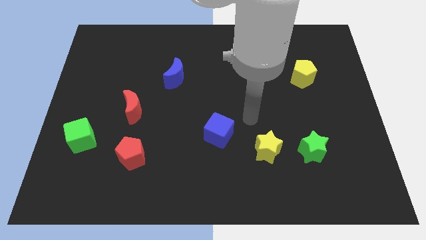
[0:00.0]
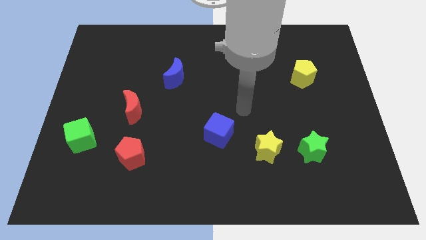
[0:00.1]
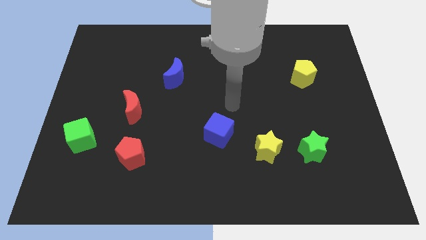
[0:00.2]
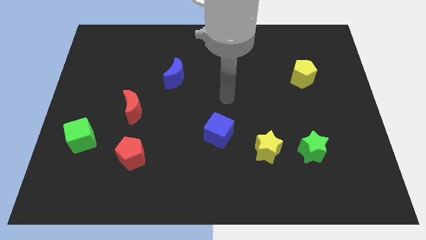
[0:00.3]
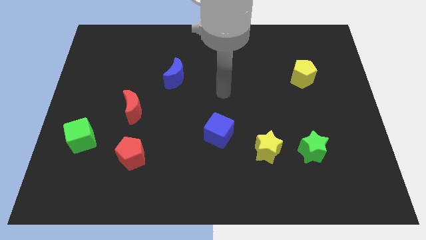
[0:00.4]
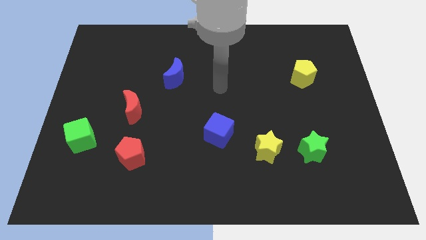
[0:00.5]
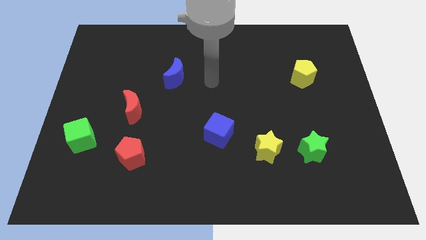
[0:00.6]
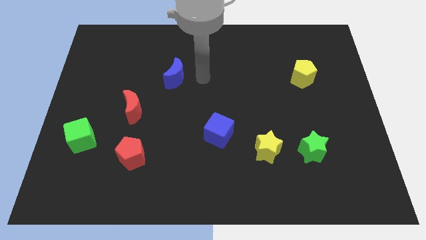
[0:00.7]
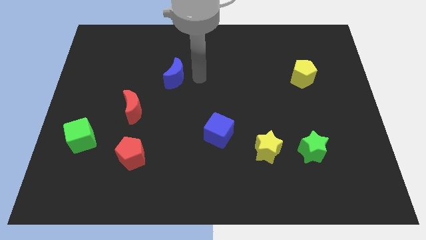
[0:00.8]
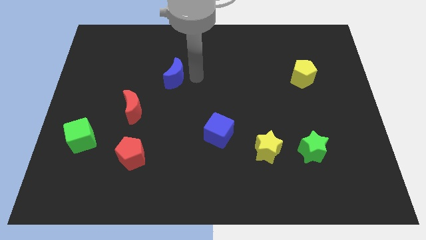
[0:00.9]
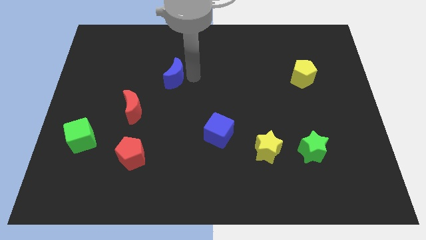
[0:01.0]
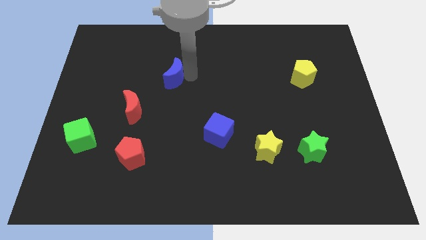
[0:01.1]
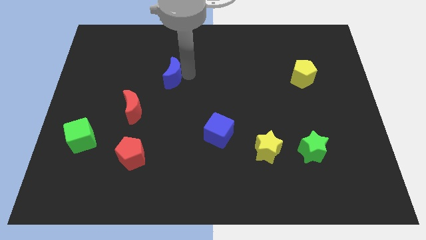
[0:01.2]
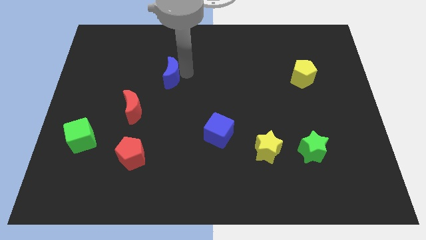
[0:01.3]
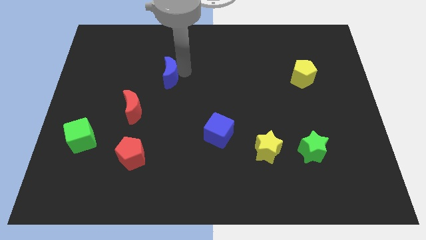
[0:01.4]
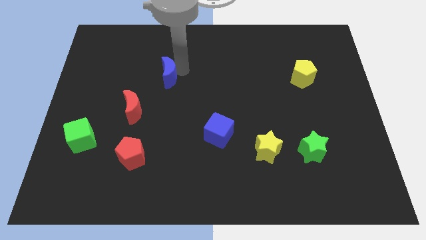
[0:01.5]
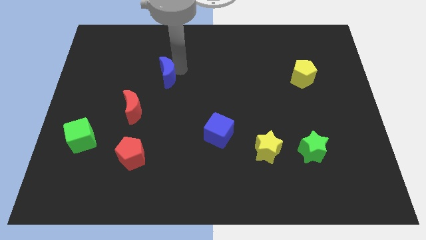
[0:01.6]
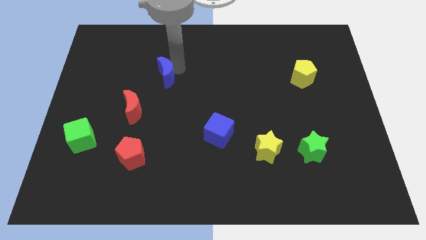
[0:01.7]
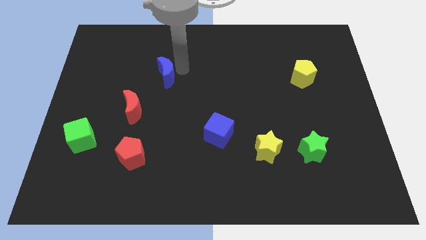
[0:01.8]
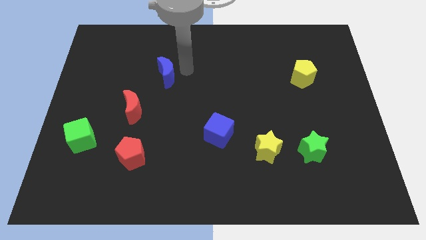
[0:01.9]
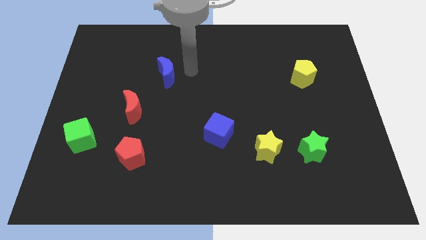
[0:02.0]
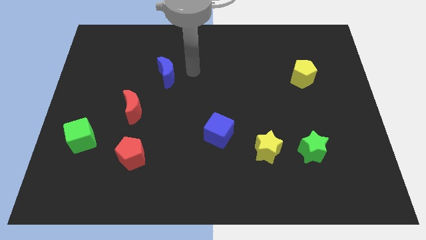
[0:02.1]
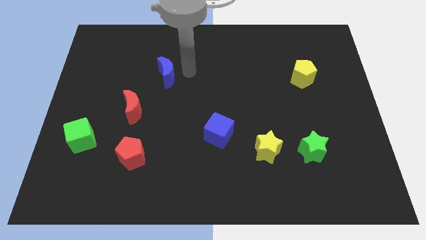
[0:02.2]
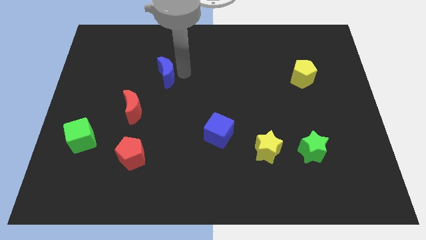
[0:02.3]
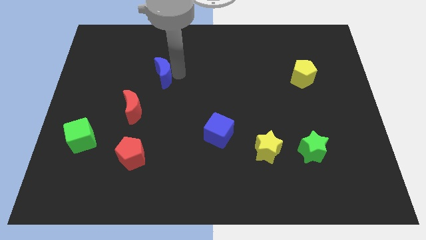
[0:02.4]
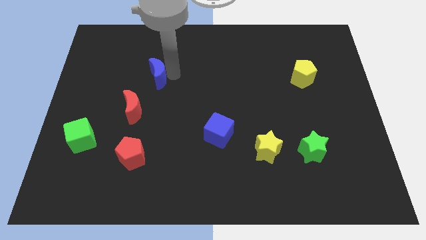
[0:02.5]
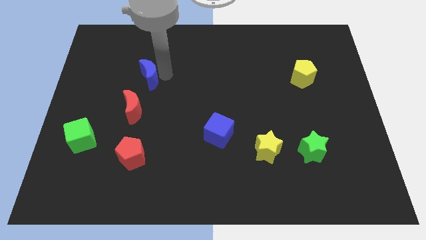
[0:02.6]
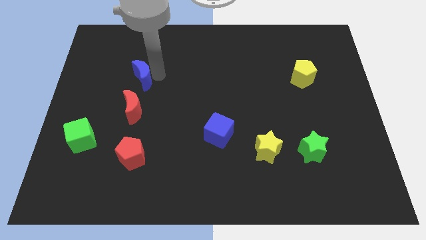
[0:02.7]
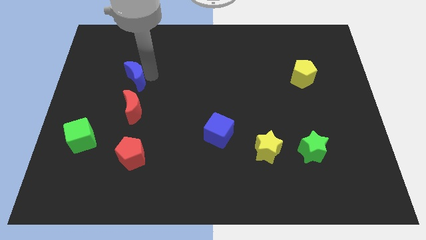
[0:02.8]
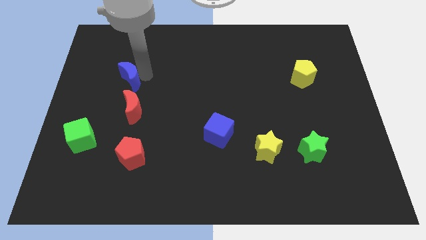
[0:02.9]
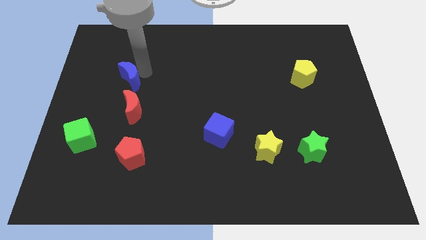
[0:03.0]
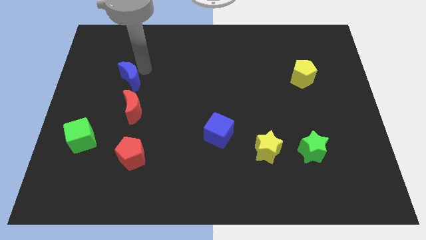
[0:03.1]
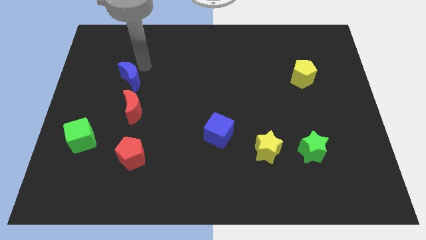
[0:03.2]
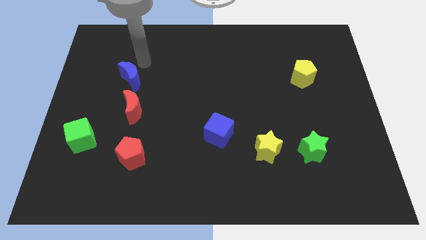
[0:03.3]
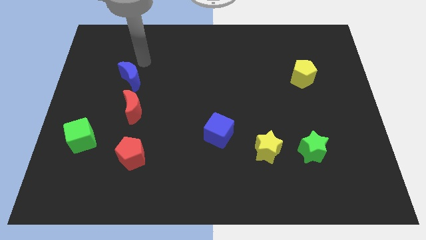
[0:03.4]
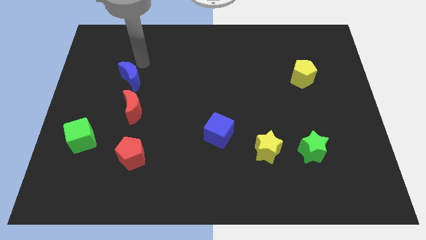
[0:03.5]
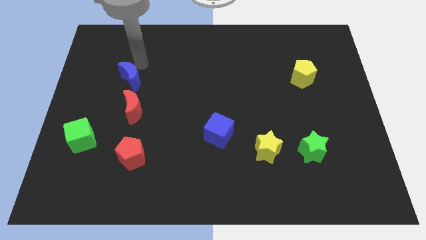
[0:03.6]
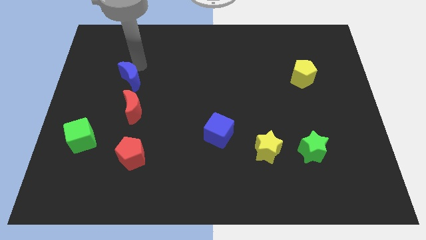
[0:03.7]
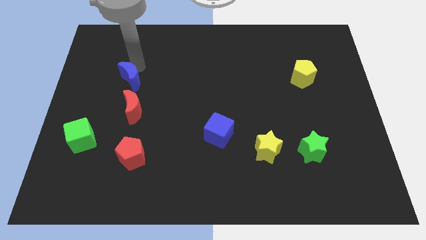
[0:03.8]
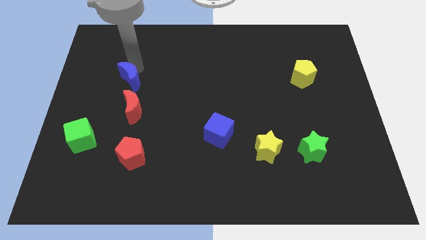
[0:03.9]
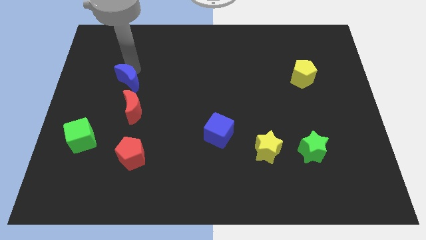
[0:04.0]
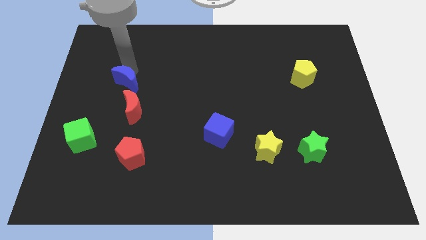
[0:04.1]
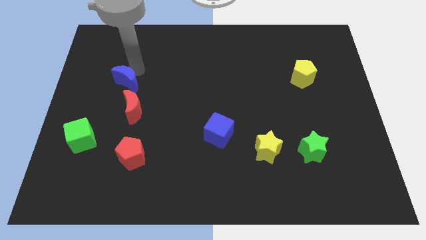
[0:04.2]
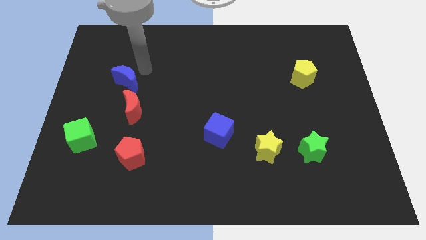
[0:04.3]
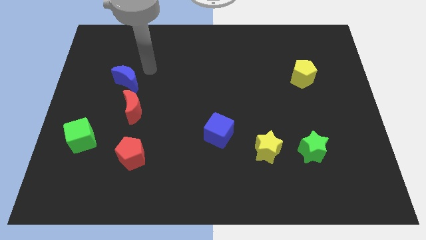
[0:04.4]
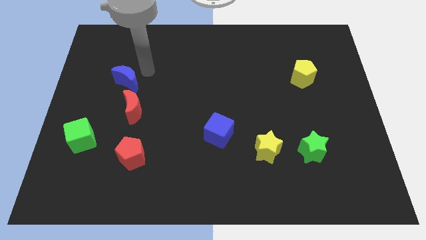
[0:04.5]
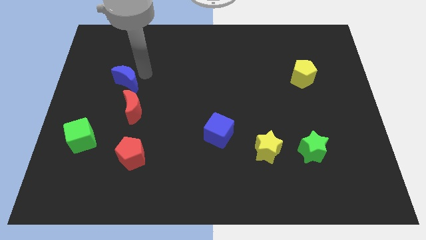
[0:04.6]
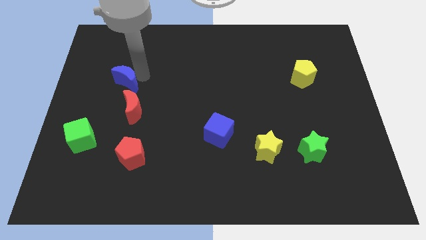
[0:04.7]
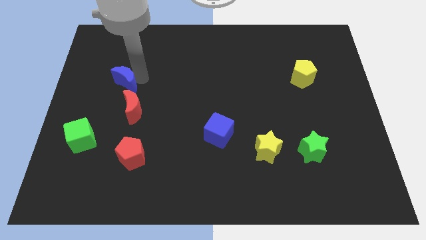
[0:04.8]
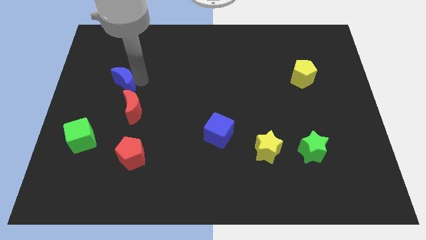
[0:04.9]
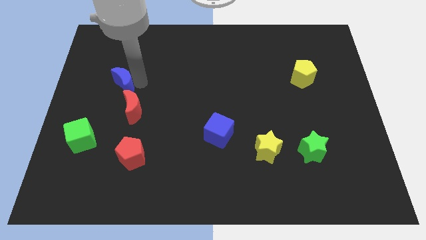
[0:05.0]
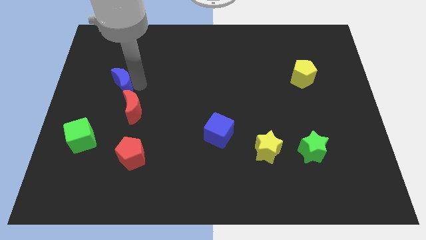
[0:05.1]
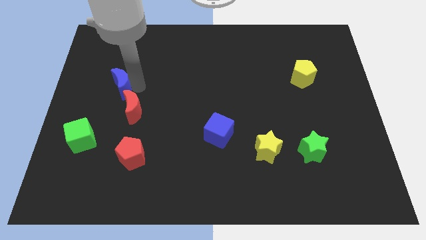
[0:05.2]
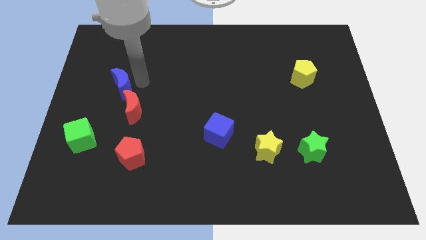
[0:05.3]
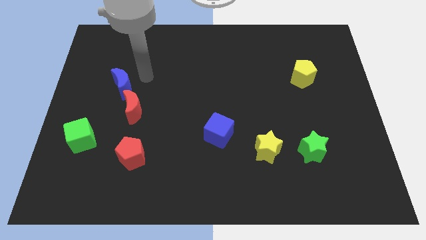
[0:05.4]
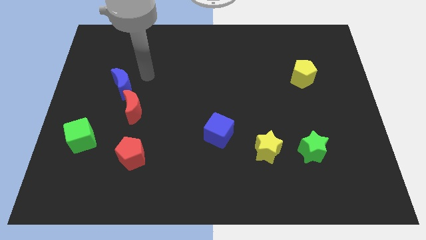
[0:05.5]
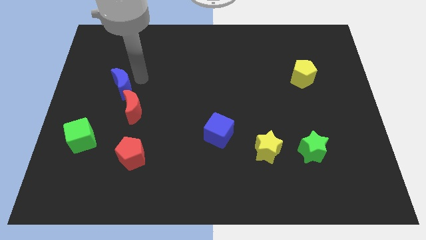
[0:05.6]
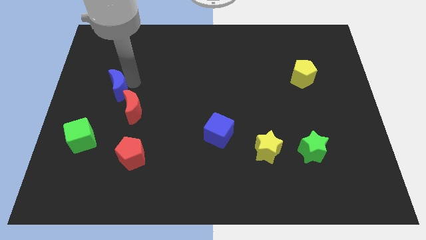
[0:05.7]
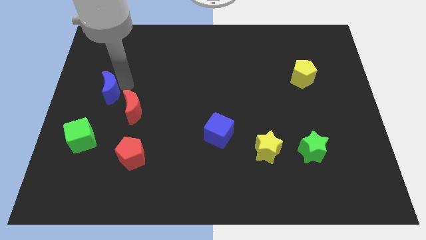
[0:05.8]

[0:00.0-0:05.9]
put the blue moon to the top side of the green cube
